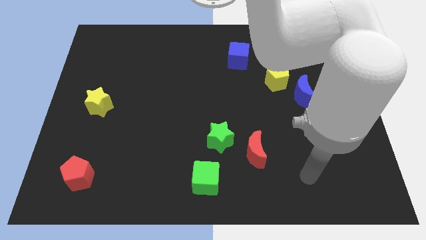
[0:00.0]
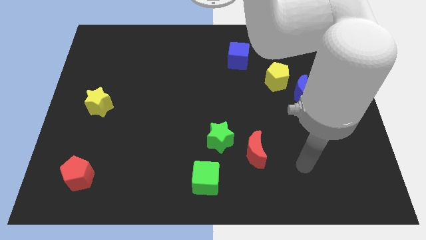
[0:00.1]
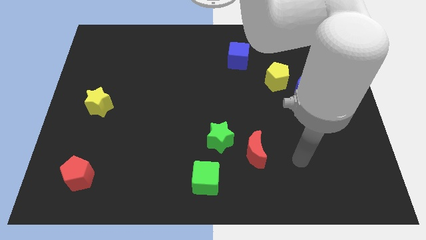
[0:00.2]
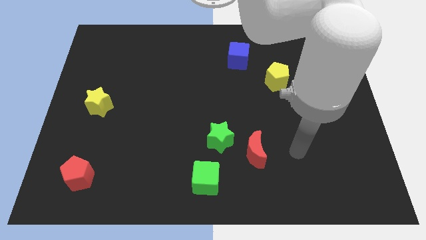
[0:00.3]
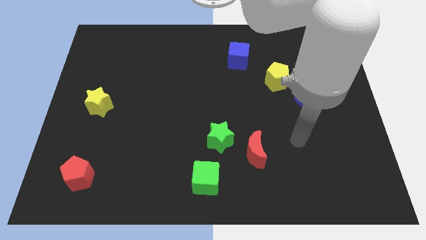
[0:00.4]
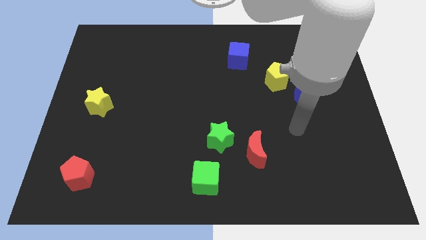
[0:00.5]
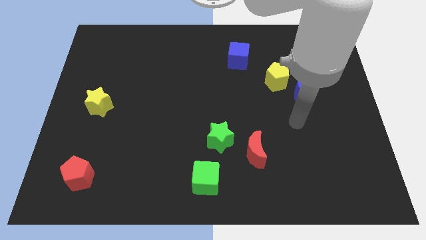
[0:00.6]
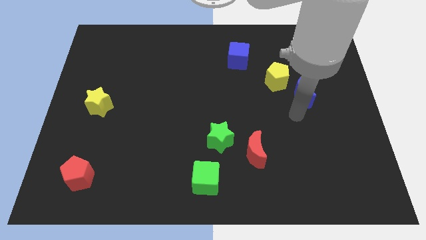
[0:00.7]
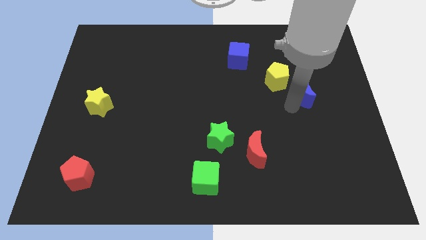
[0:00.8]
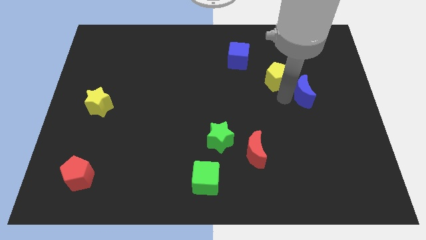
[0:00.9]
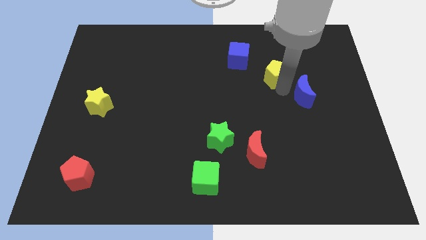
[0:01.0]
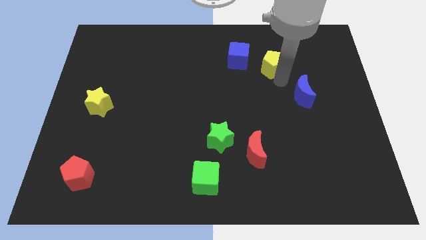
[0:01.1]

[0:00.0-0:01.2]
pull the blue moon apart from the yellow pentagon

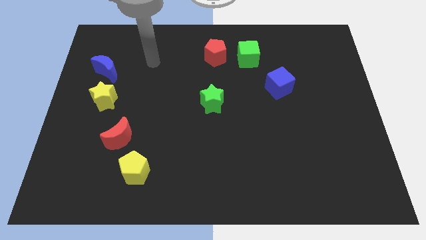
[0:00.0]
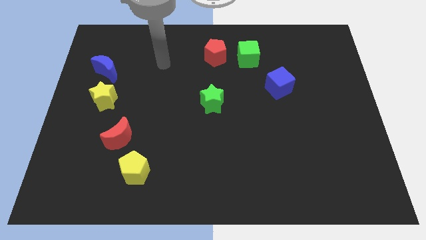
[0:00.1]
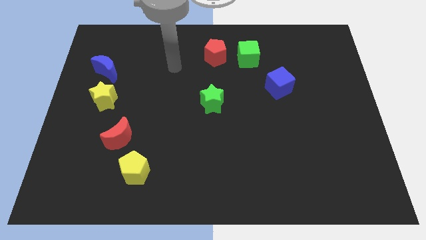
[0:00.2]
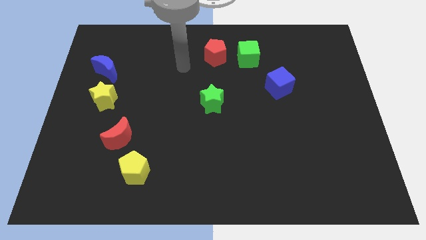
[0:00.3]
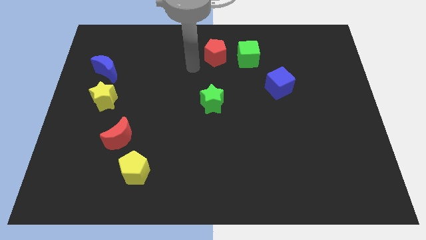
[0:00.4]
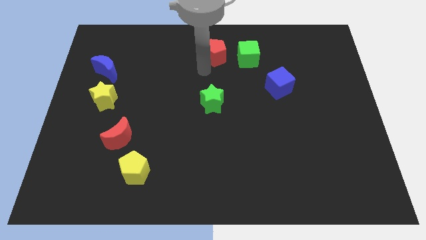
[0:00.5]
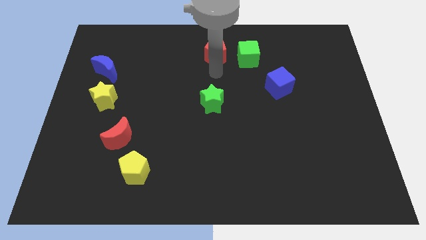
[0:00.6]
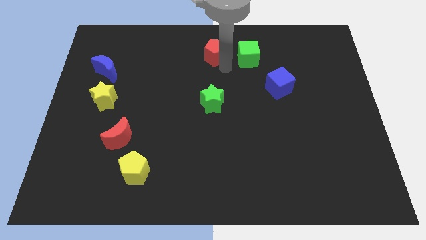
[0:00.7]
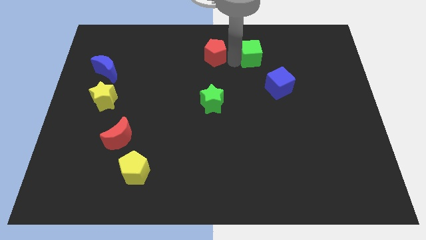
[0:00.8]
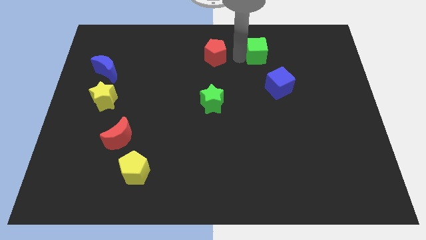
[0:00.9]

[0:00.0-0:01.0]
separate the red pentagon from the green cube

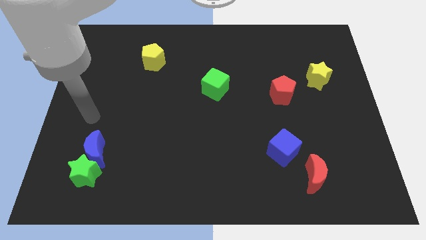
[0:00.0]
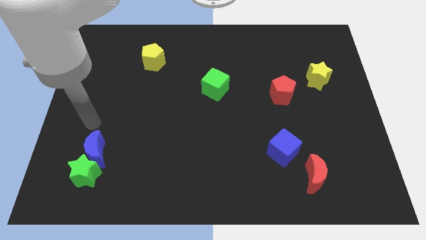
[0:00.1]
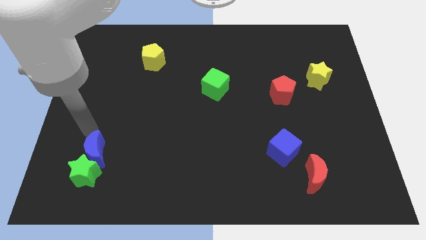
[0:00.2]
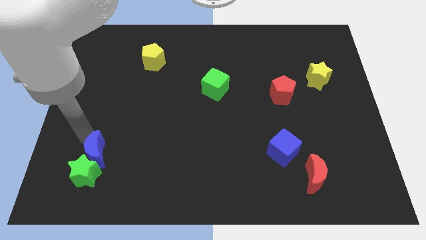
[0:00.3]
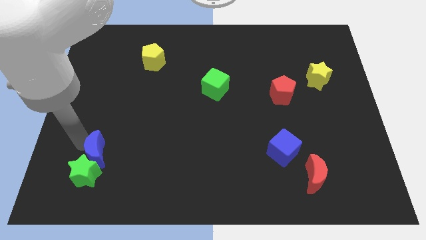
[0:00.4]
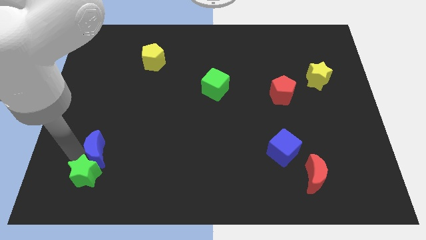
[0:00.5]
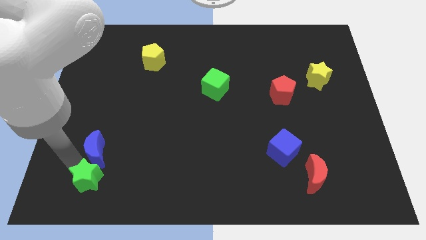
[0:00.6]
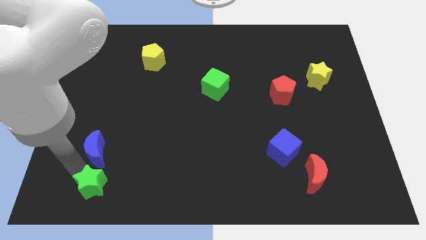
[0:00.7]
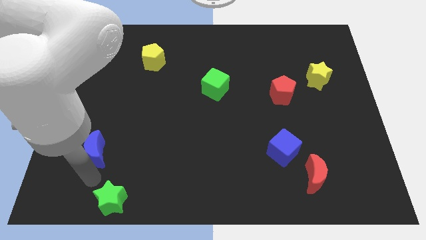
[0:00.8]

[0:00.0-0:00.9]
pull the blue moon apart from the green star

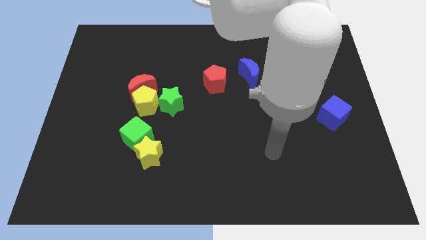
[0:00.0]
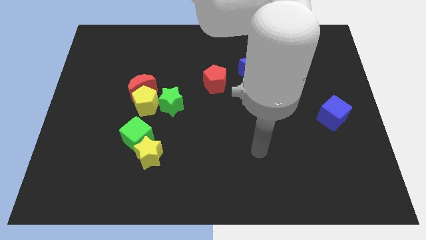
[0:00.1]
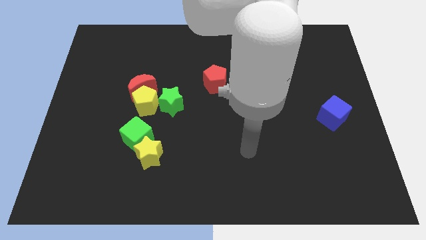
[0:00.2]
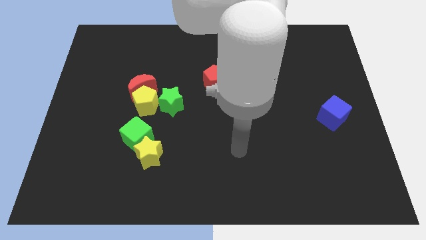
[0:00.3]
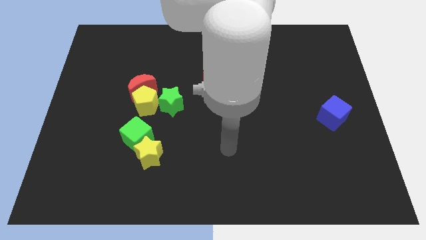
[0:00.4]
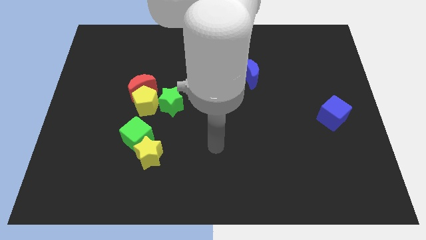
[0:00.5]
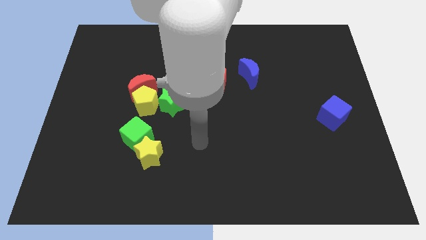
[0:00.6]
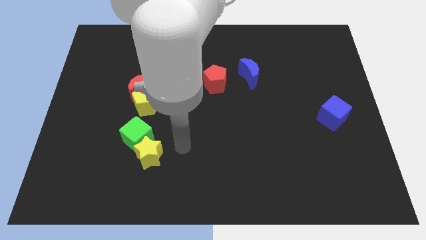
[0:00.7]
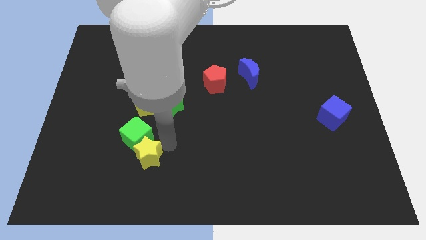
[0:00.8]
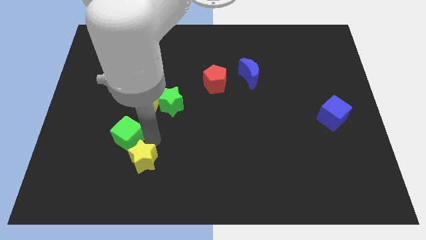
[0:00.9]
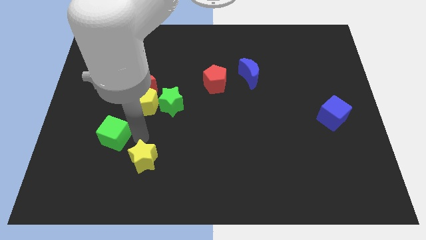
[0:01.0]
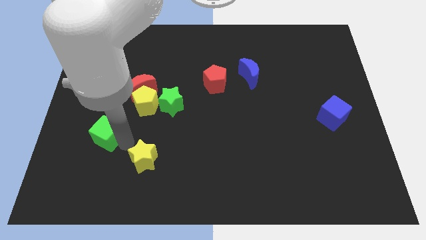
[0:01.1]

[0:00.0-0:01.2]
pull the yellow star apart from the green cube

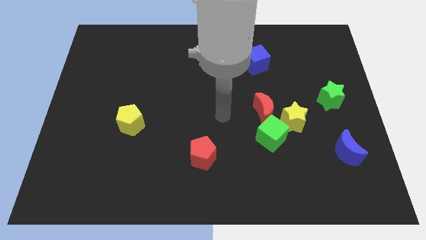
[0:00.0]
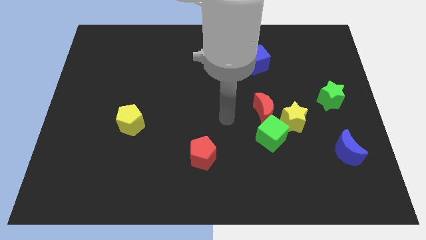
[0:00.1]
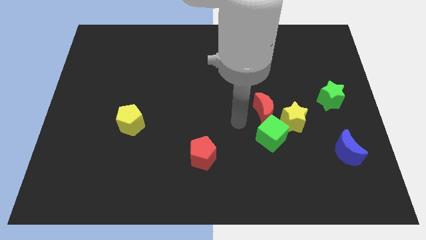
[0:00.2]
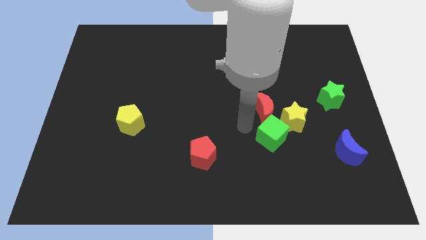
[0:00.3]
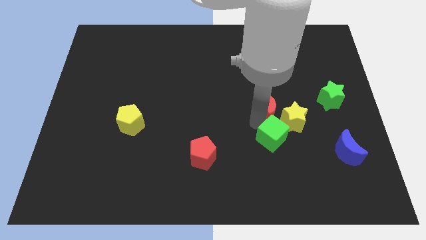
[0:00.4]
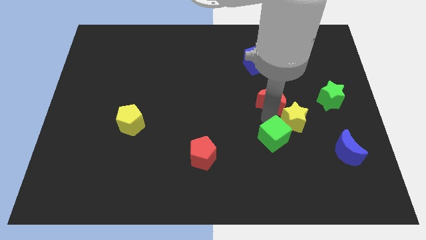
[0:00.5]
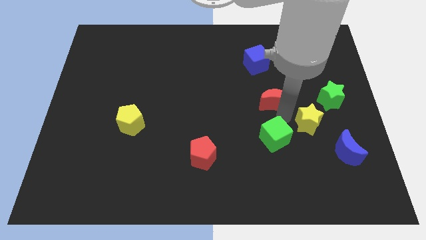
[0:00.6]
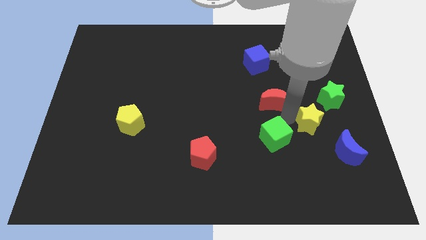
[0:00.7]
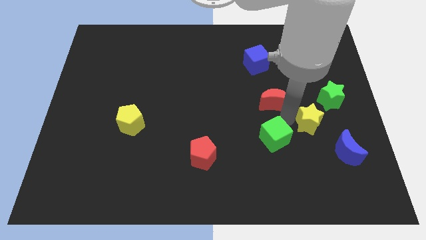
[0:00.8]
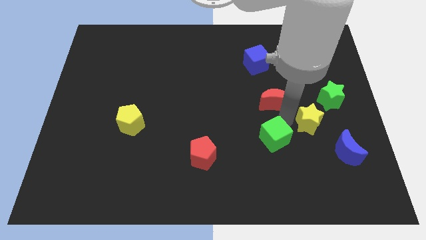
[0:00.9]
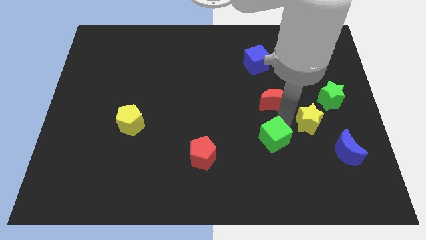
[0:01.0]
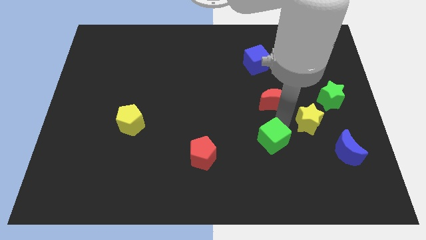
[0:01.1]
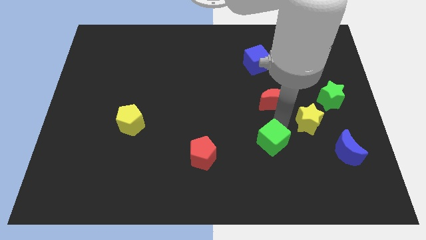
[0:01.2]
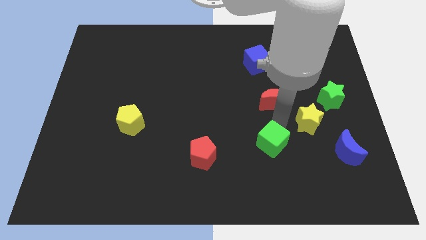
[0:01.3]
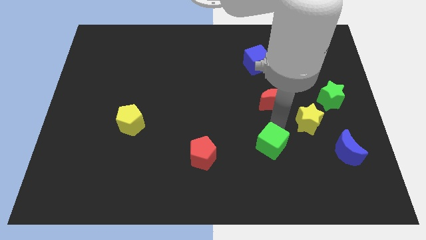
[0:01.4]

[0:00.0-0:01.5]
move the green cube away from the red moon and yellow star

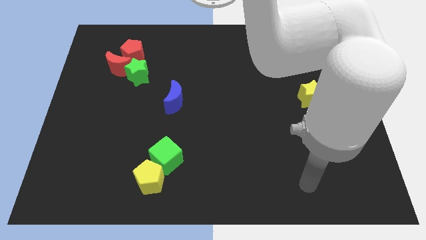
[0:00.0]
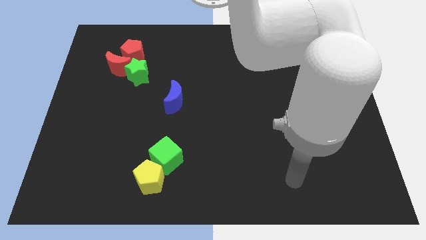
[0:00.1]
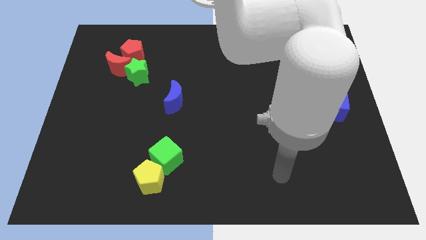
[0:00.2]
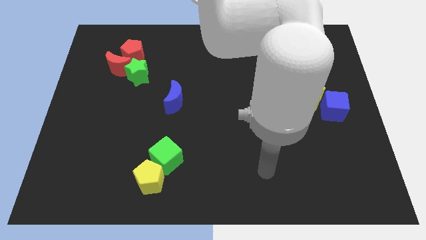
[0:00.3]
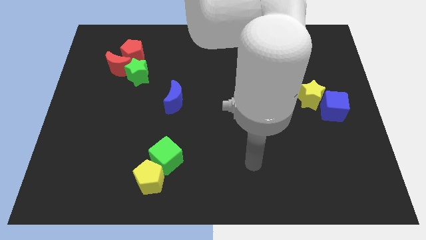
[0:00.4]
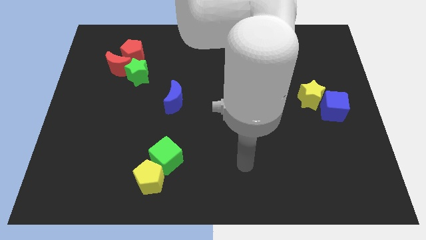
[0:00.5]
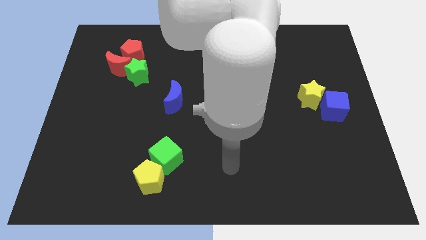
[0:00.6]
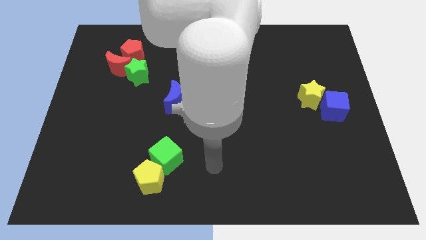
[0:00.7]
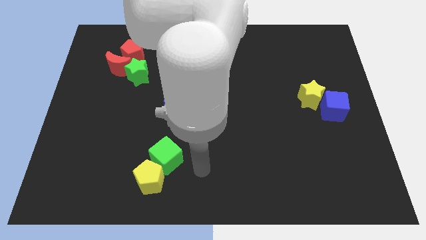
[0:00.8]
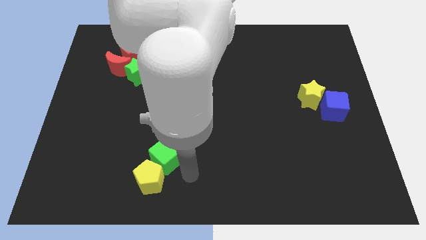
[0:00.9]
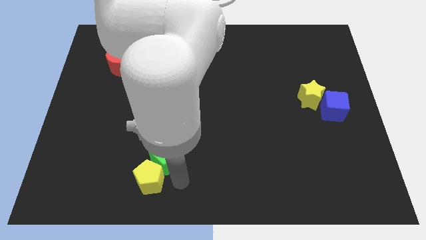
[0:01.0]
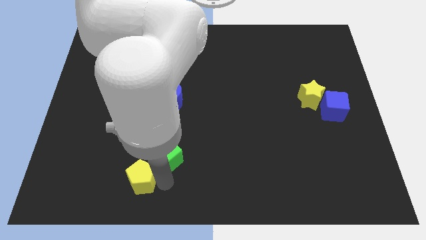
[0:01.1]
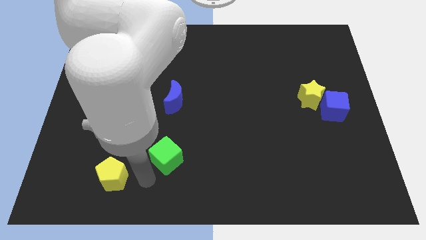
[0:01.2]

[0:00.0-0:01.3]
move the green cube away from the yellow pentagon

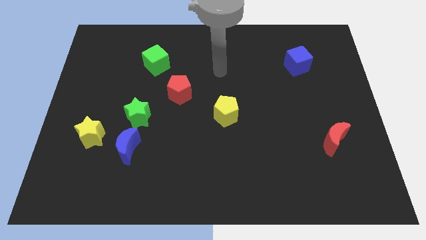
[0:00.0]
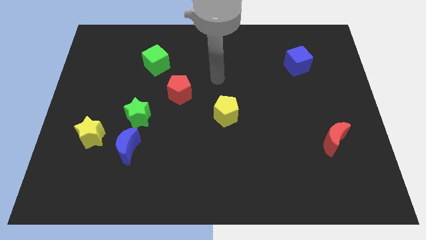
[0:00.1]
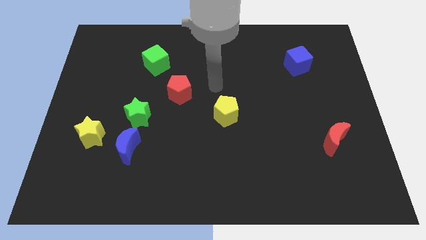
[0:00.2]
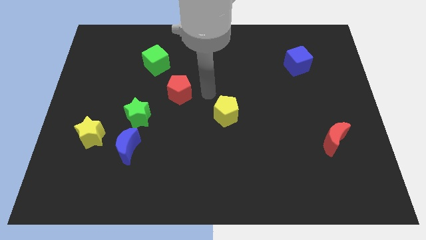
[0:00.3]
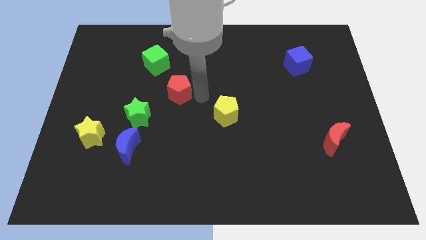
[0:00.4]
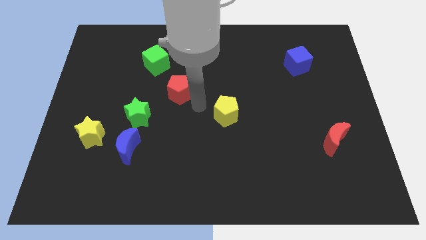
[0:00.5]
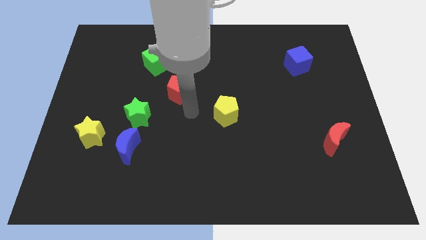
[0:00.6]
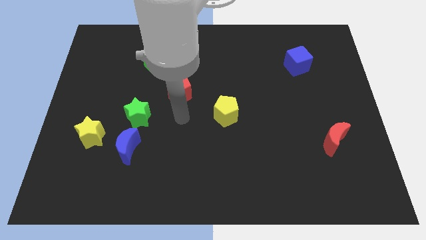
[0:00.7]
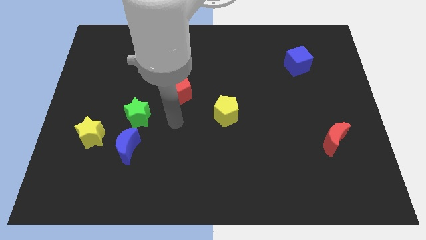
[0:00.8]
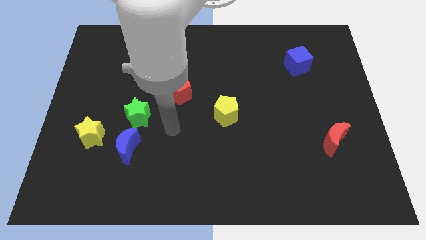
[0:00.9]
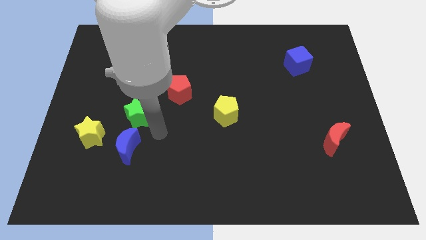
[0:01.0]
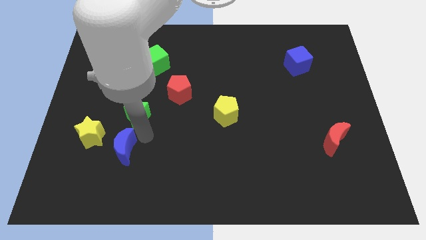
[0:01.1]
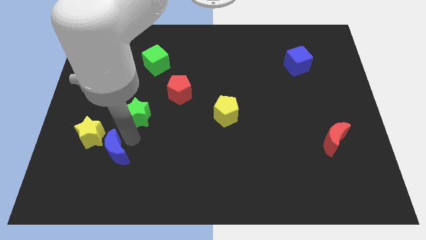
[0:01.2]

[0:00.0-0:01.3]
pull the green star apart from the blue moon

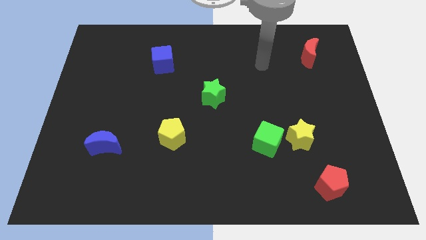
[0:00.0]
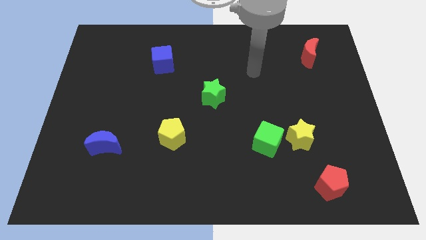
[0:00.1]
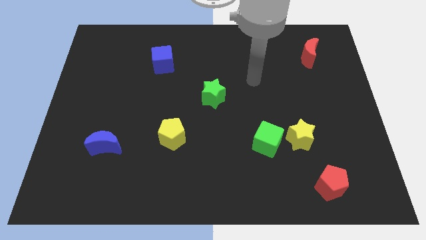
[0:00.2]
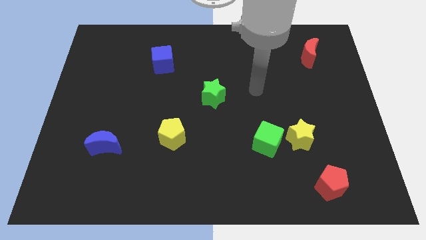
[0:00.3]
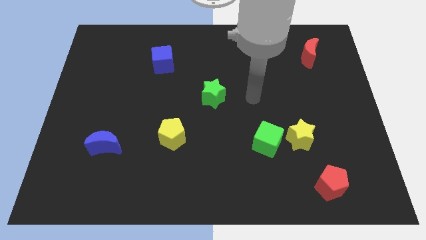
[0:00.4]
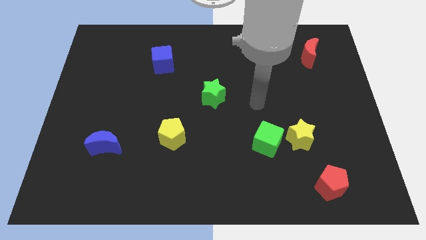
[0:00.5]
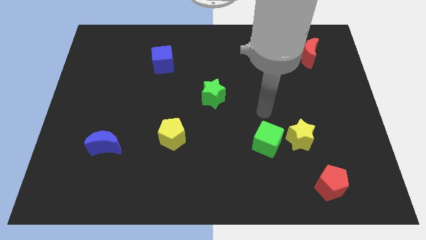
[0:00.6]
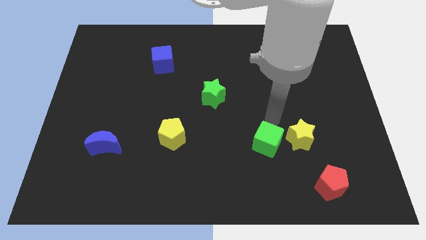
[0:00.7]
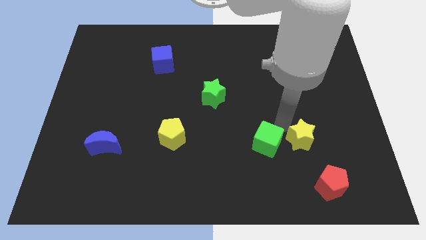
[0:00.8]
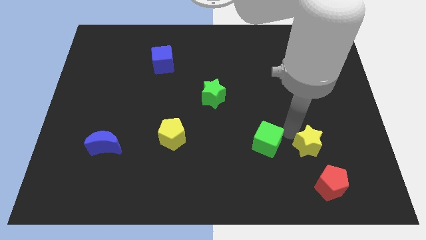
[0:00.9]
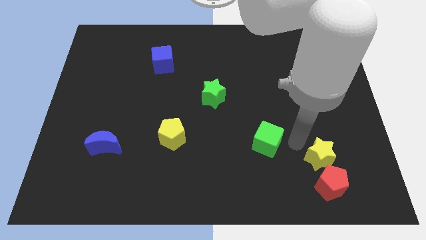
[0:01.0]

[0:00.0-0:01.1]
move the green cube away from the yellow star
